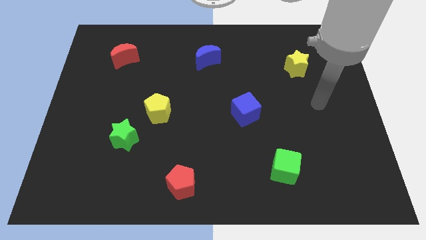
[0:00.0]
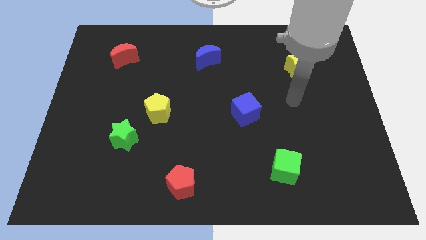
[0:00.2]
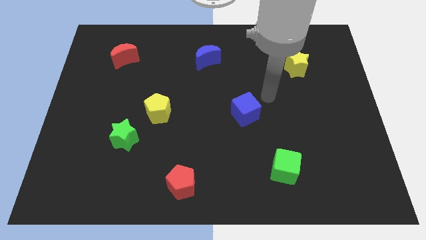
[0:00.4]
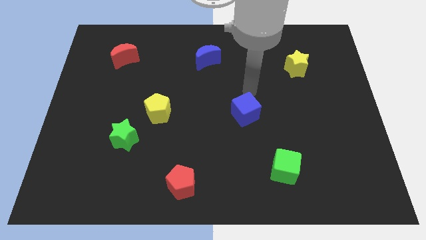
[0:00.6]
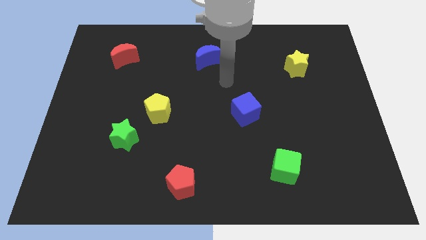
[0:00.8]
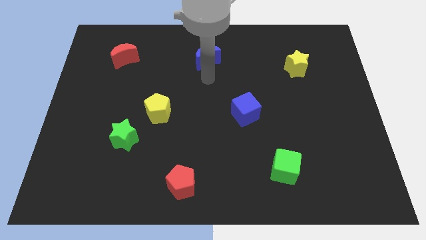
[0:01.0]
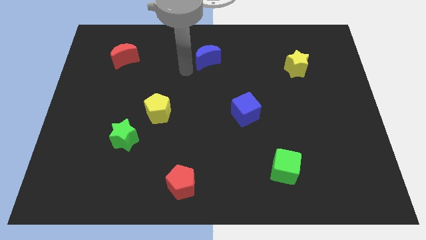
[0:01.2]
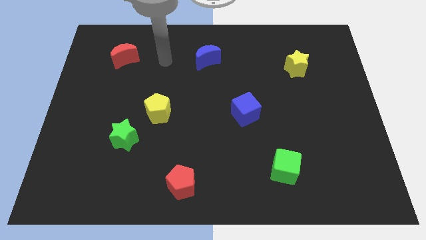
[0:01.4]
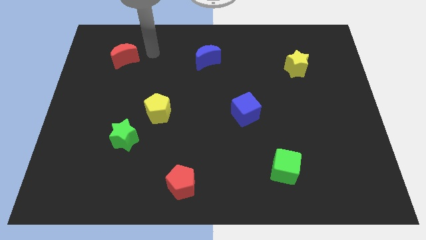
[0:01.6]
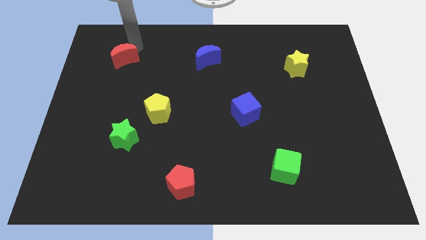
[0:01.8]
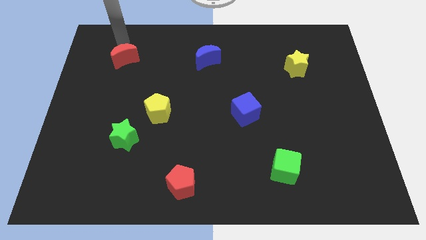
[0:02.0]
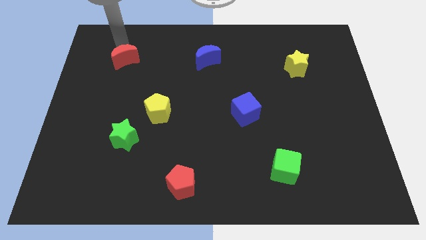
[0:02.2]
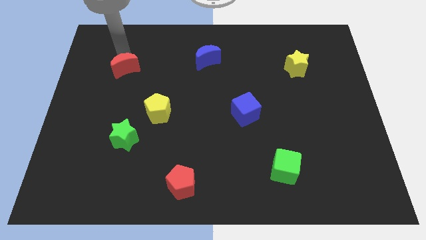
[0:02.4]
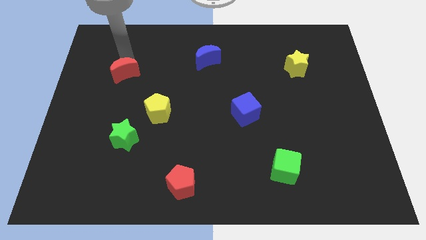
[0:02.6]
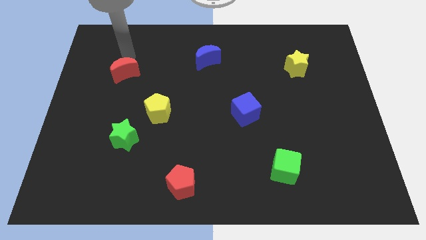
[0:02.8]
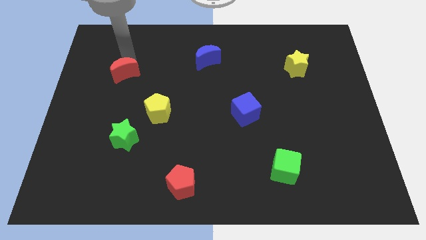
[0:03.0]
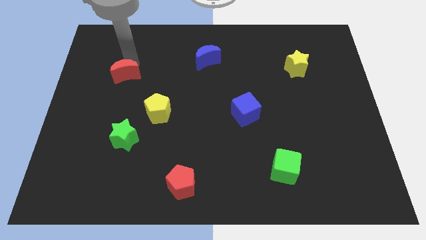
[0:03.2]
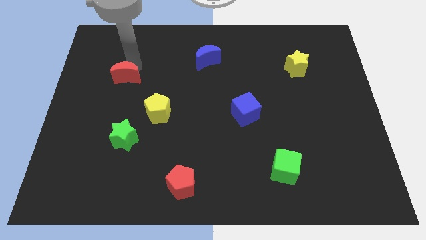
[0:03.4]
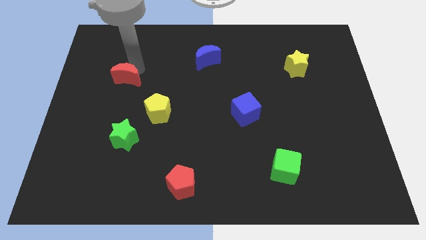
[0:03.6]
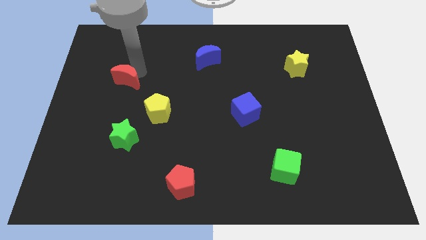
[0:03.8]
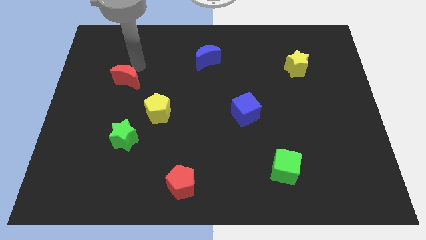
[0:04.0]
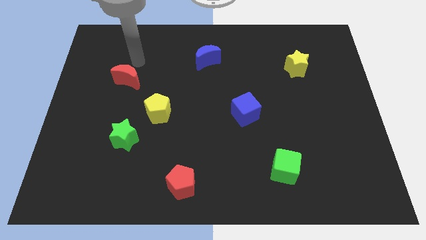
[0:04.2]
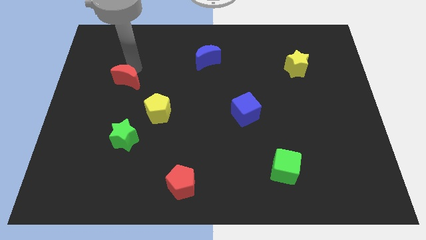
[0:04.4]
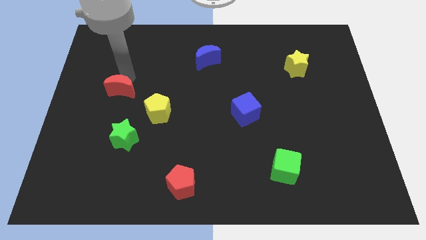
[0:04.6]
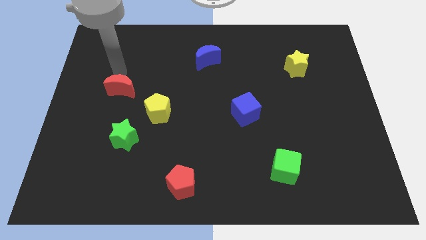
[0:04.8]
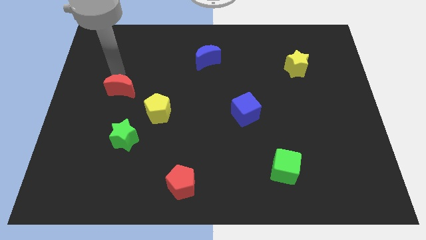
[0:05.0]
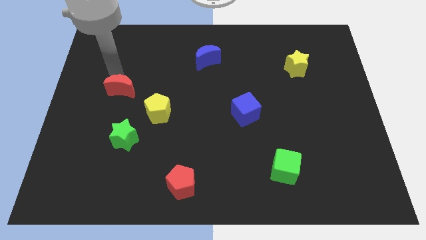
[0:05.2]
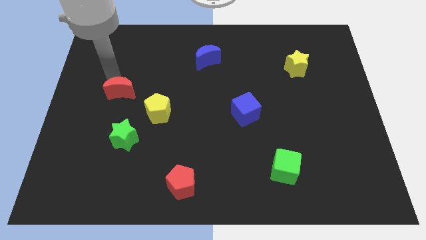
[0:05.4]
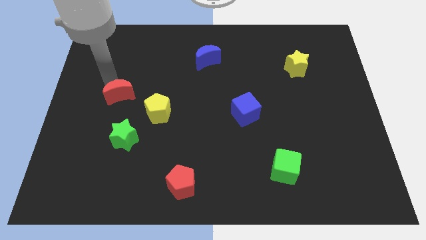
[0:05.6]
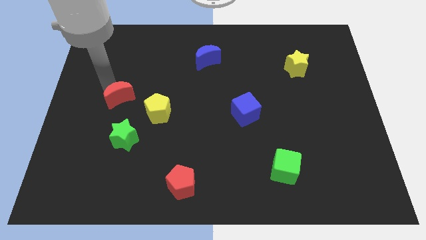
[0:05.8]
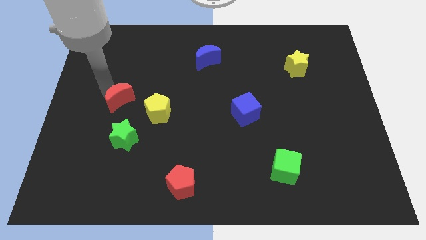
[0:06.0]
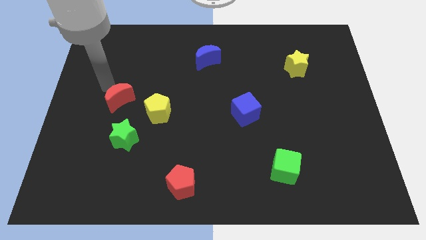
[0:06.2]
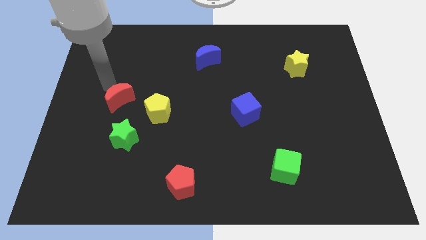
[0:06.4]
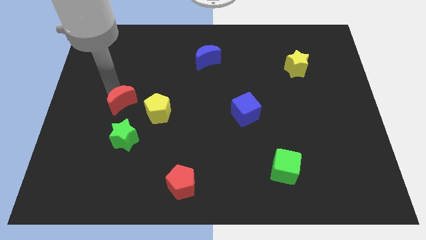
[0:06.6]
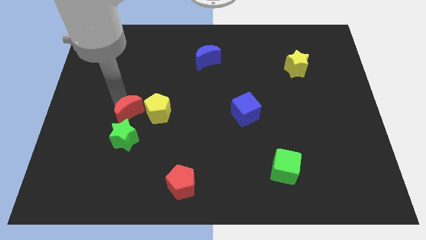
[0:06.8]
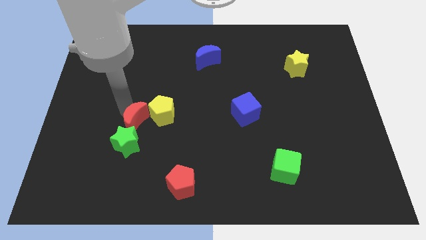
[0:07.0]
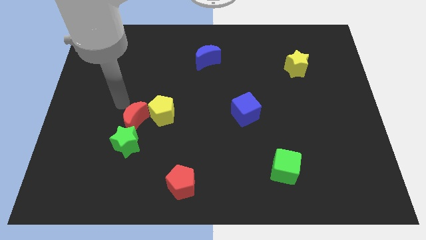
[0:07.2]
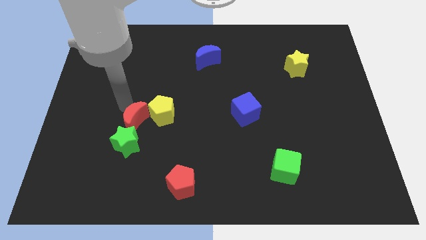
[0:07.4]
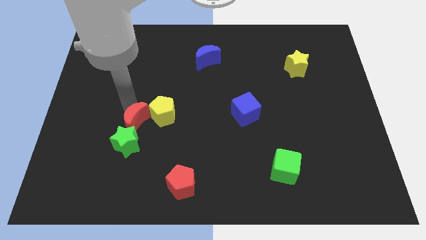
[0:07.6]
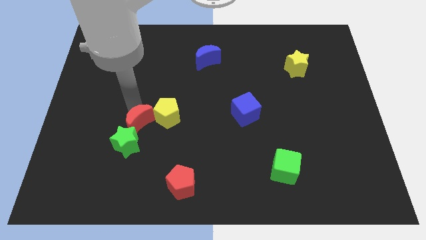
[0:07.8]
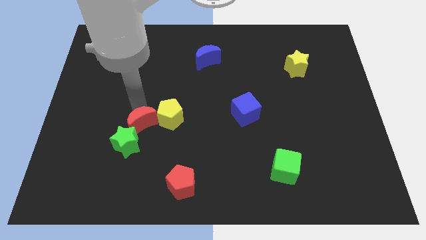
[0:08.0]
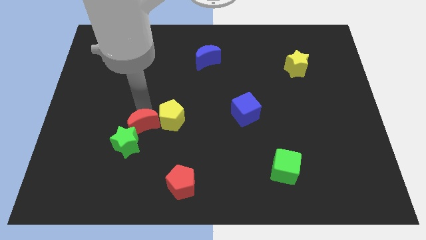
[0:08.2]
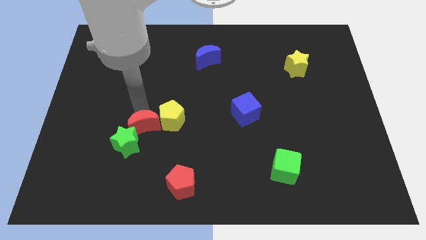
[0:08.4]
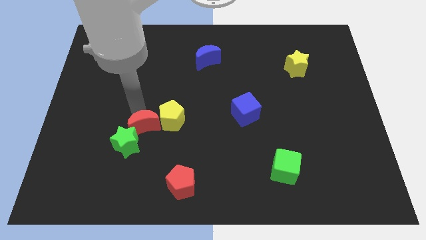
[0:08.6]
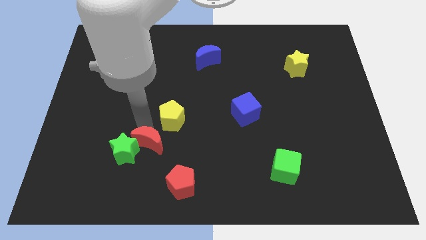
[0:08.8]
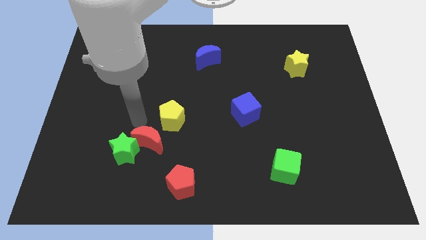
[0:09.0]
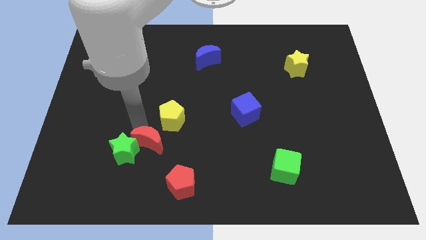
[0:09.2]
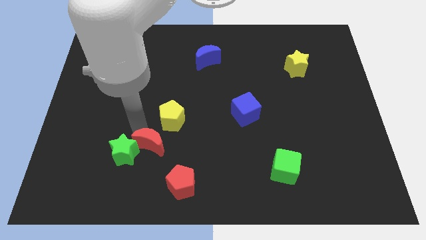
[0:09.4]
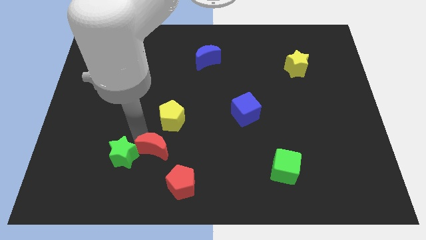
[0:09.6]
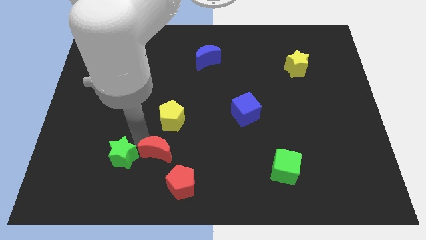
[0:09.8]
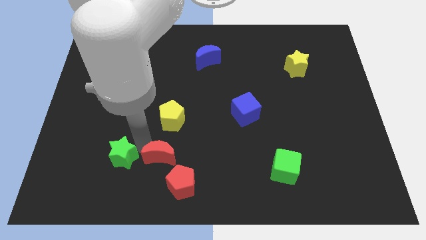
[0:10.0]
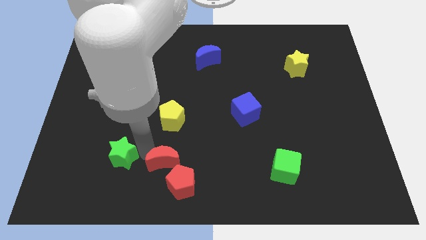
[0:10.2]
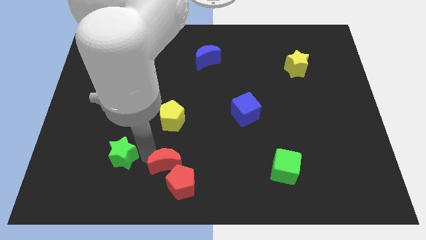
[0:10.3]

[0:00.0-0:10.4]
push the red moon next to the red pentagon

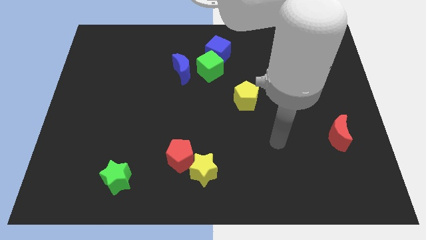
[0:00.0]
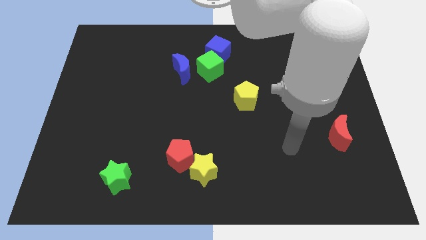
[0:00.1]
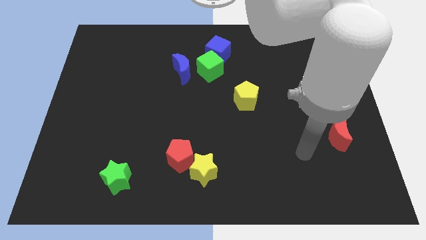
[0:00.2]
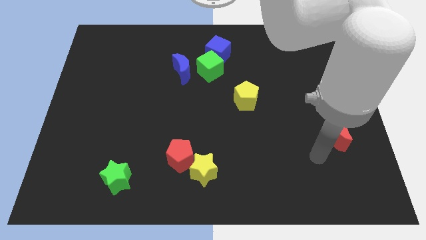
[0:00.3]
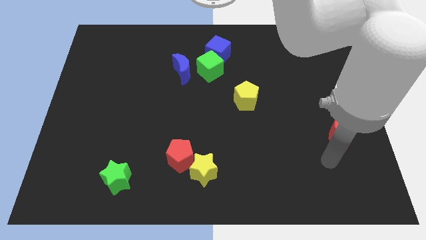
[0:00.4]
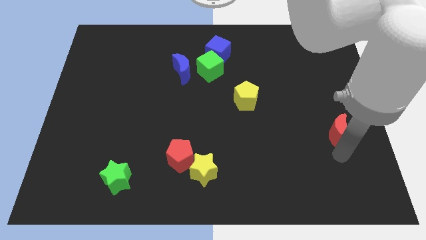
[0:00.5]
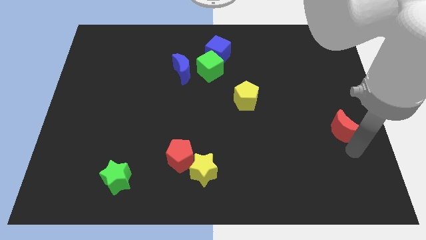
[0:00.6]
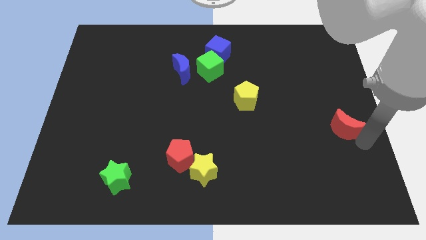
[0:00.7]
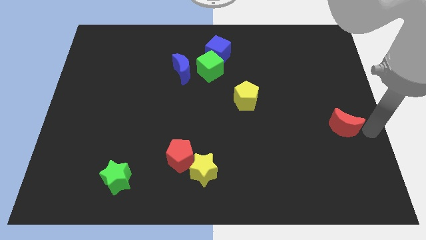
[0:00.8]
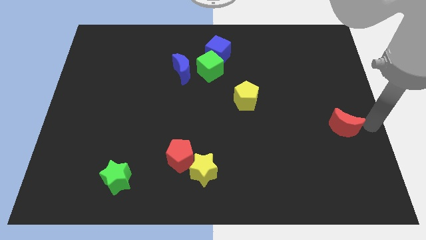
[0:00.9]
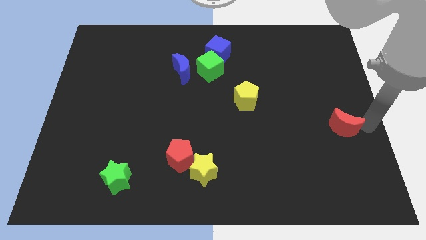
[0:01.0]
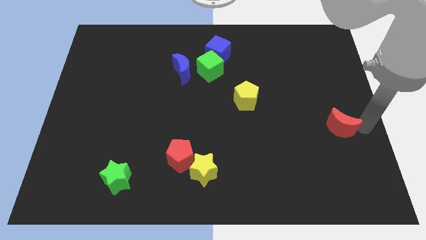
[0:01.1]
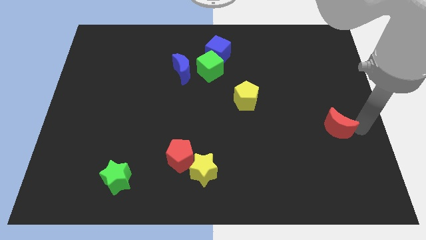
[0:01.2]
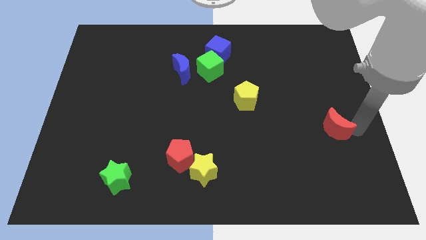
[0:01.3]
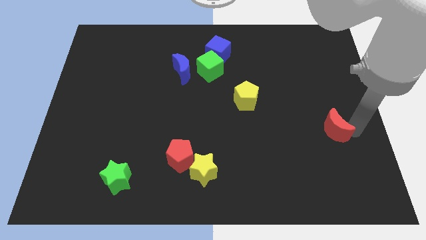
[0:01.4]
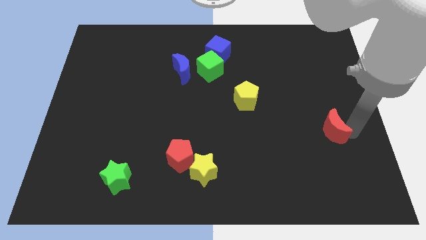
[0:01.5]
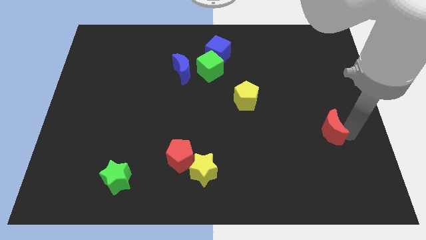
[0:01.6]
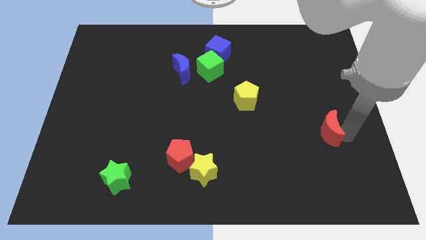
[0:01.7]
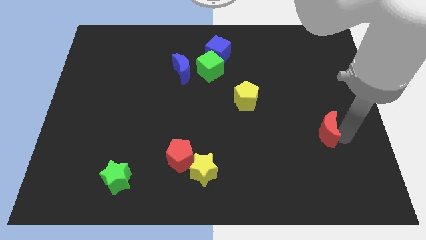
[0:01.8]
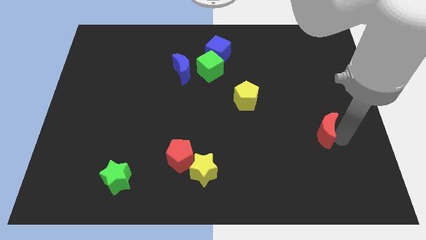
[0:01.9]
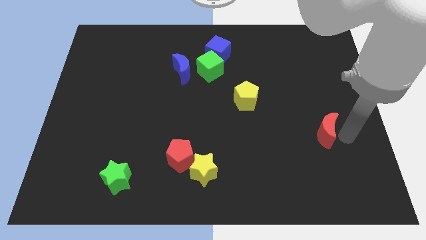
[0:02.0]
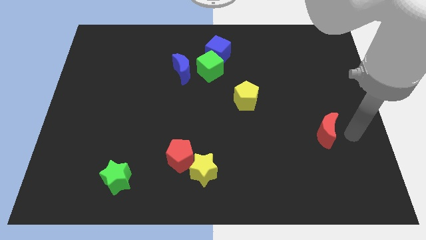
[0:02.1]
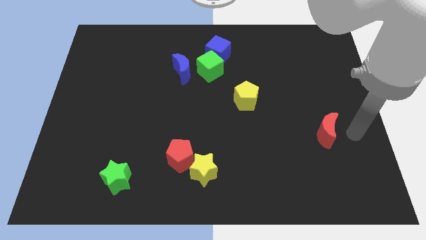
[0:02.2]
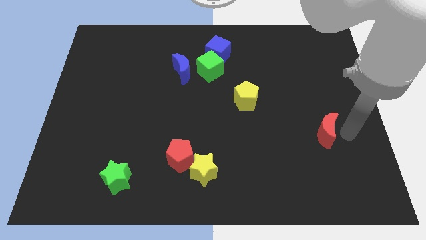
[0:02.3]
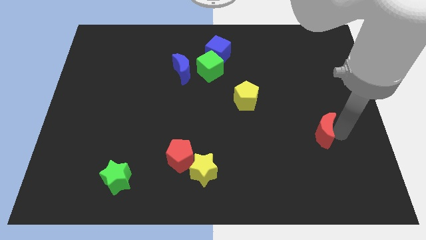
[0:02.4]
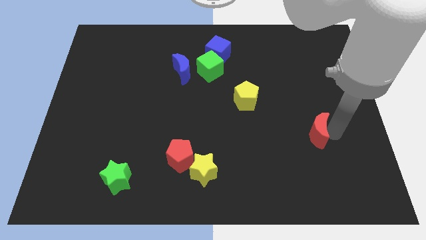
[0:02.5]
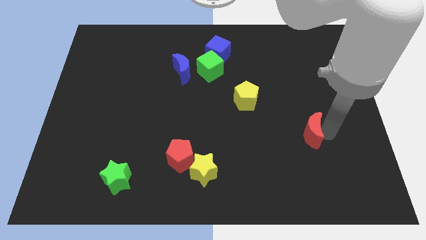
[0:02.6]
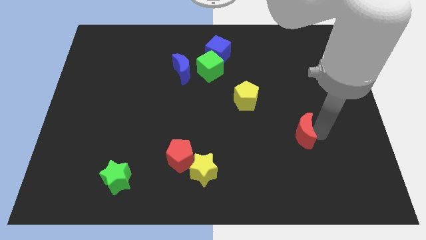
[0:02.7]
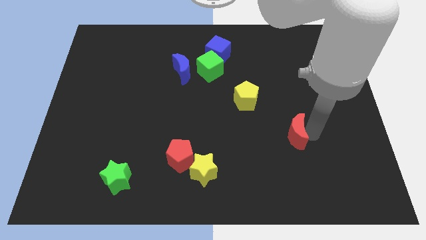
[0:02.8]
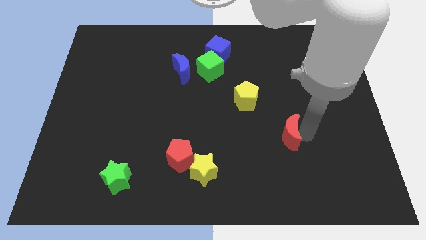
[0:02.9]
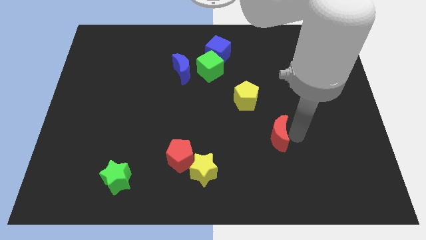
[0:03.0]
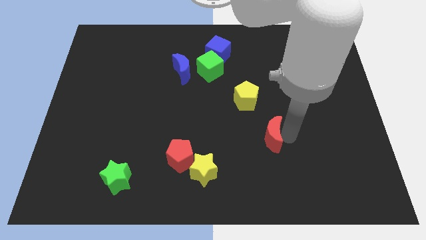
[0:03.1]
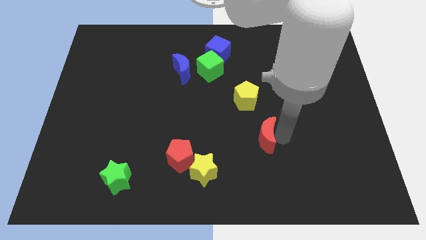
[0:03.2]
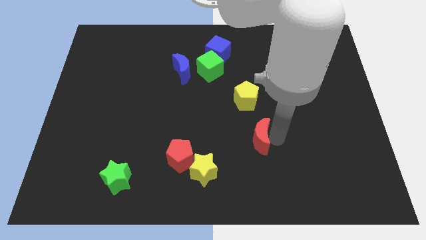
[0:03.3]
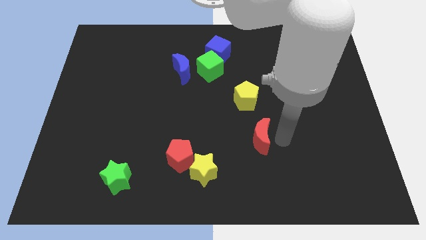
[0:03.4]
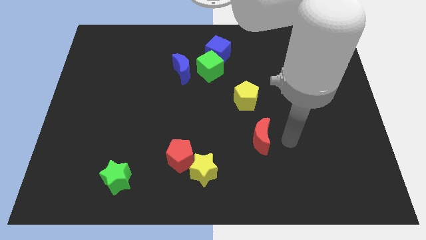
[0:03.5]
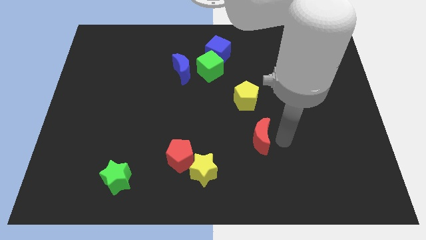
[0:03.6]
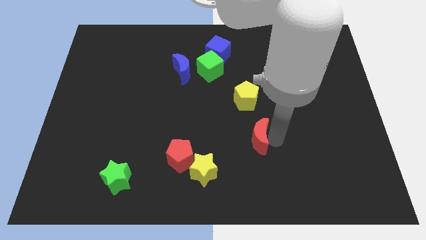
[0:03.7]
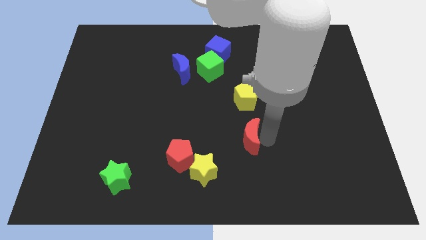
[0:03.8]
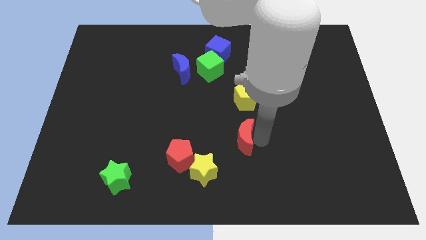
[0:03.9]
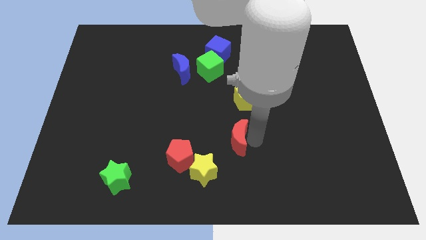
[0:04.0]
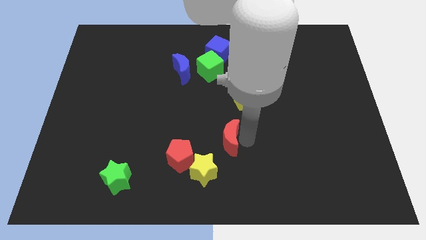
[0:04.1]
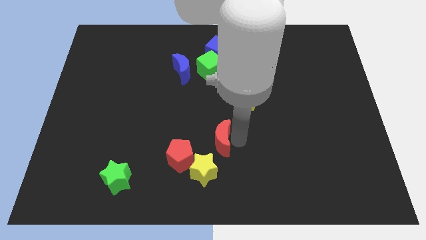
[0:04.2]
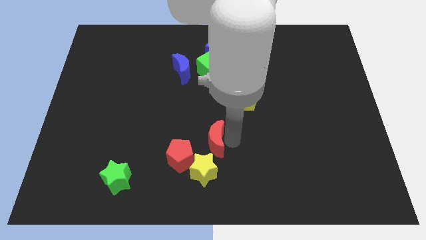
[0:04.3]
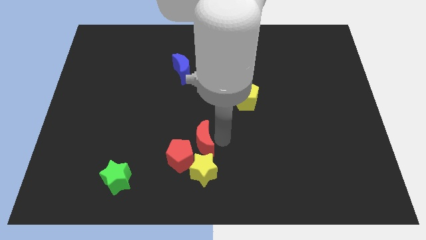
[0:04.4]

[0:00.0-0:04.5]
move the red moon close to the red pentagon
